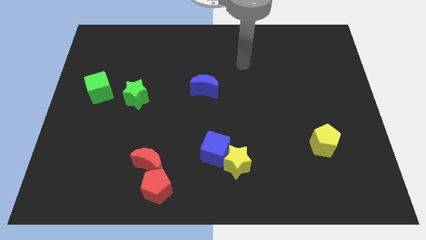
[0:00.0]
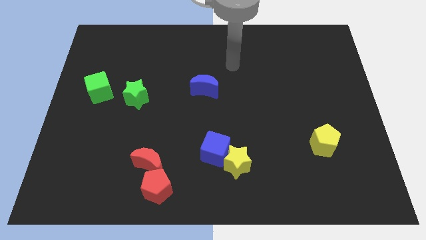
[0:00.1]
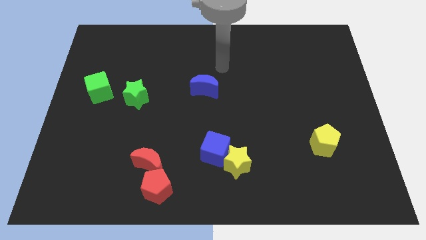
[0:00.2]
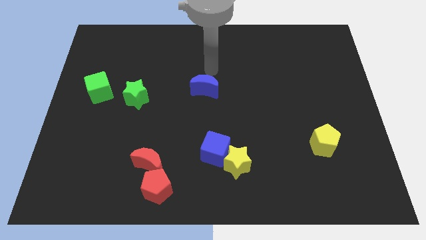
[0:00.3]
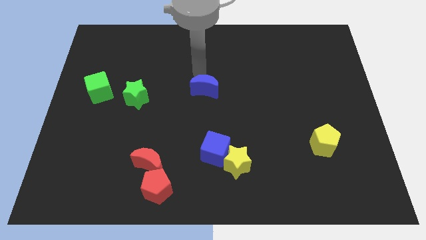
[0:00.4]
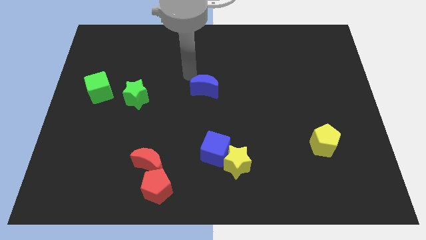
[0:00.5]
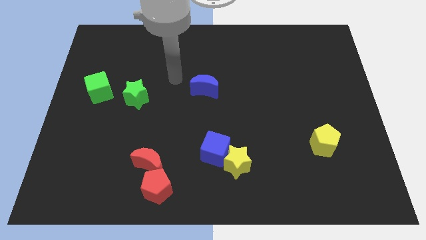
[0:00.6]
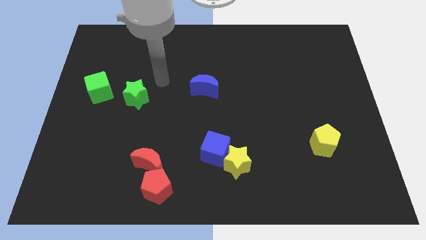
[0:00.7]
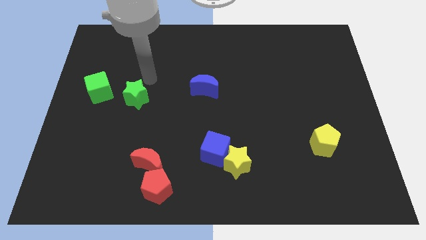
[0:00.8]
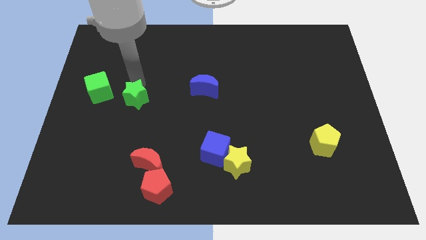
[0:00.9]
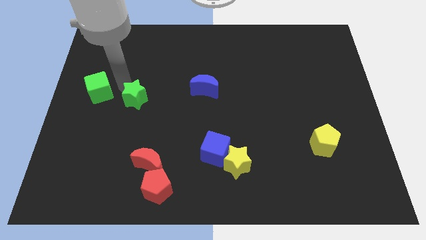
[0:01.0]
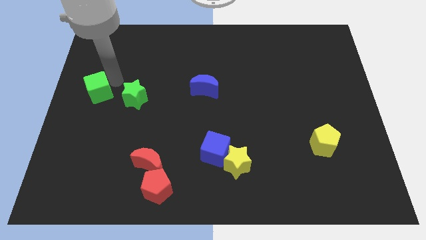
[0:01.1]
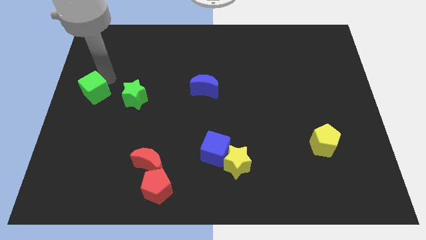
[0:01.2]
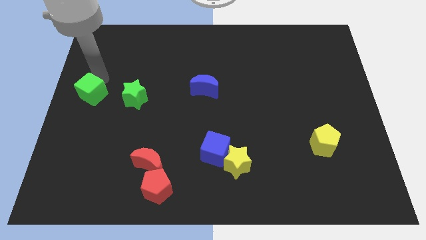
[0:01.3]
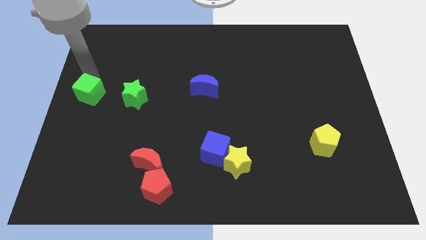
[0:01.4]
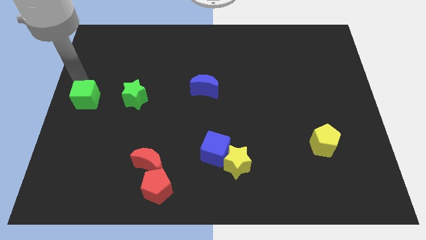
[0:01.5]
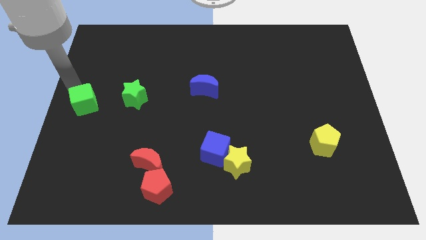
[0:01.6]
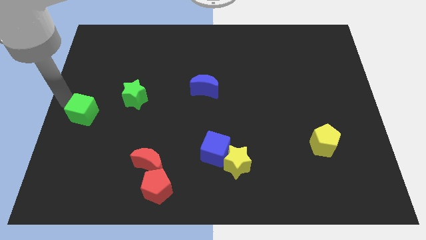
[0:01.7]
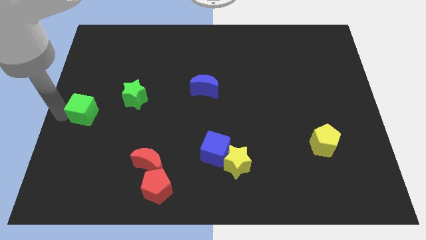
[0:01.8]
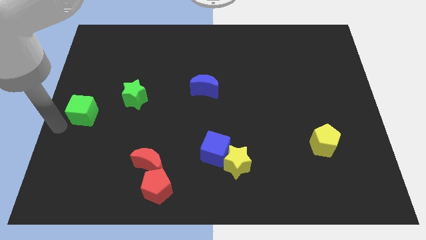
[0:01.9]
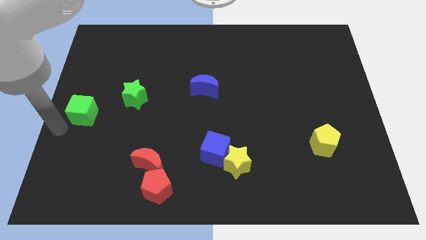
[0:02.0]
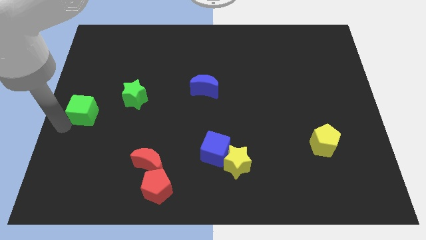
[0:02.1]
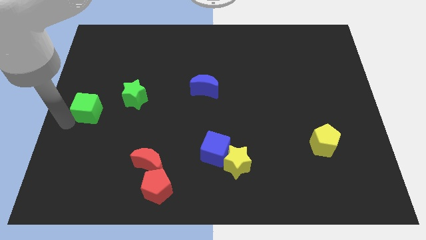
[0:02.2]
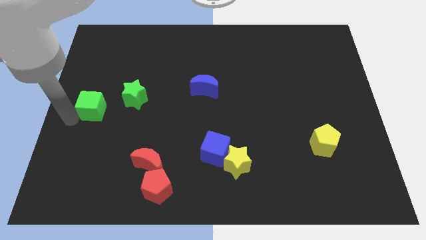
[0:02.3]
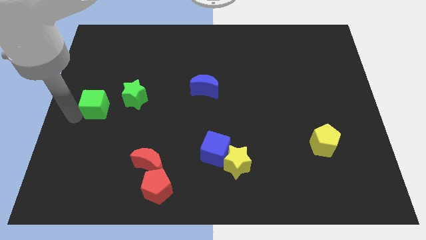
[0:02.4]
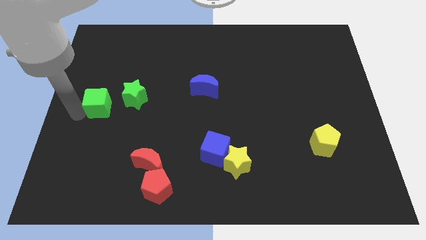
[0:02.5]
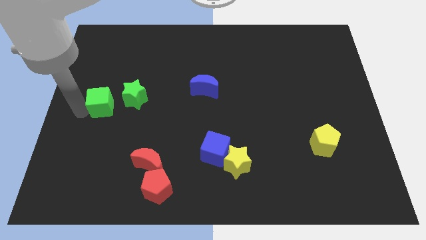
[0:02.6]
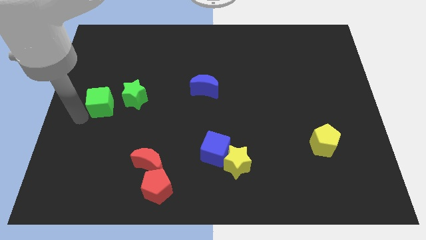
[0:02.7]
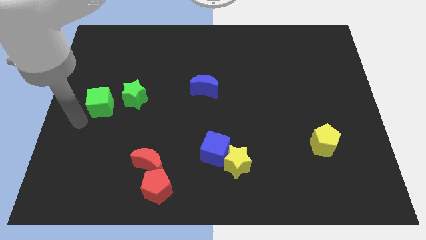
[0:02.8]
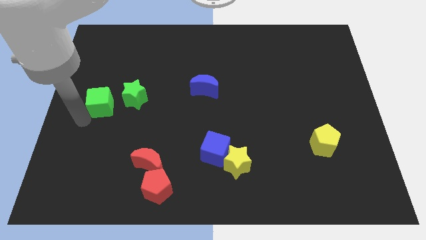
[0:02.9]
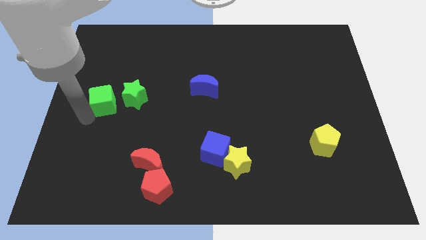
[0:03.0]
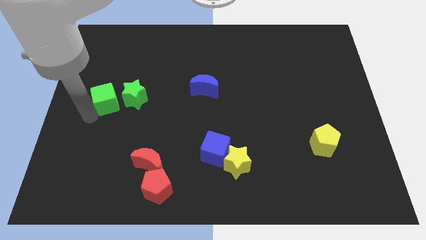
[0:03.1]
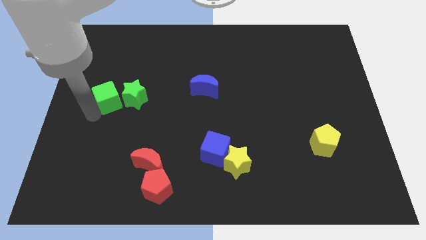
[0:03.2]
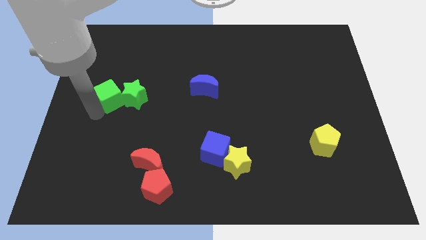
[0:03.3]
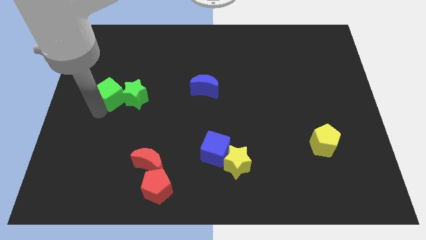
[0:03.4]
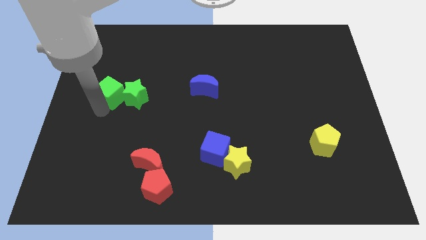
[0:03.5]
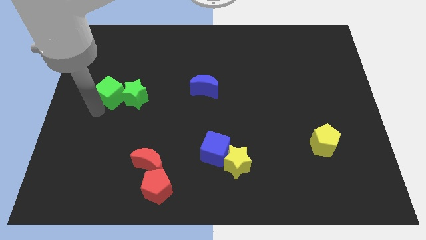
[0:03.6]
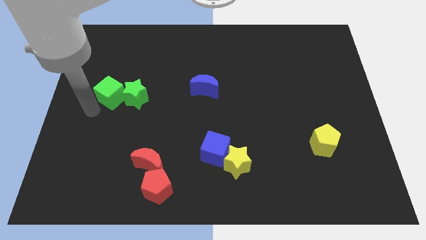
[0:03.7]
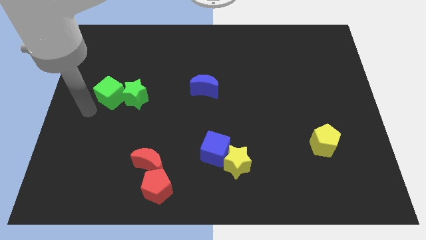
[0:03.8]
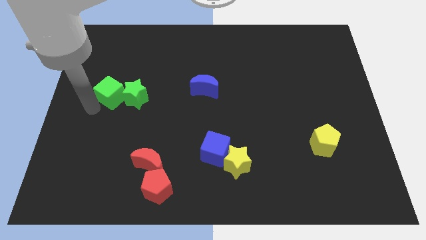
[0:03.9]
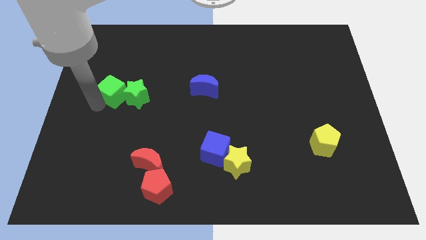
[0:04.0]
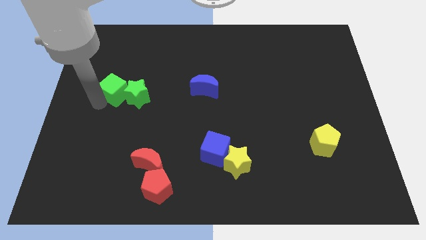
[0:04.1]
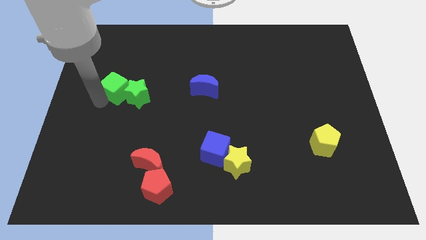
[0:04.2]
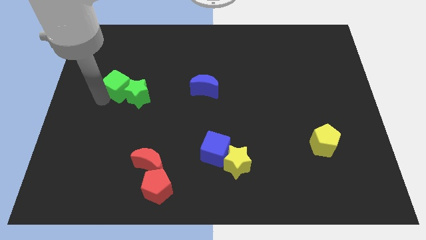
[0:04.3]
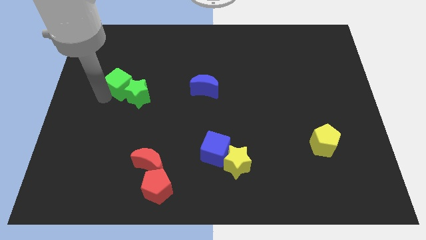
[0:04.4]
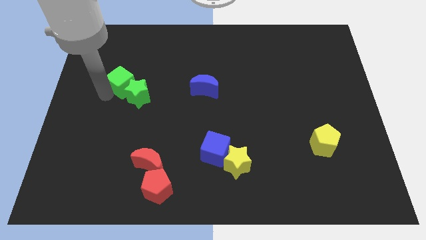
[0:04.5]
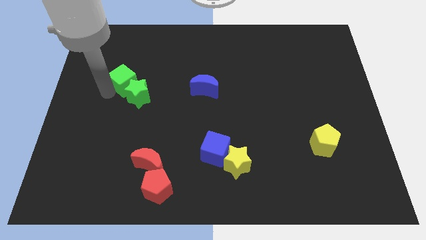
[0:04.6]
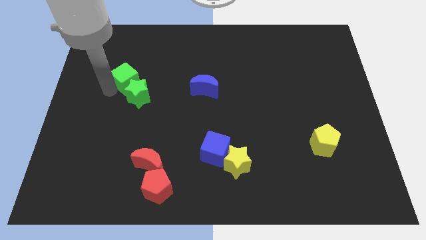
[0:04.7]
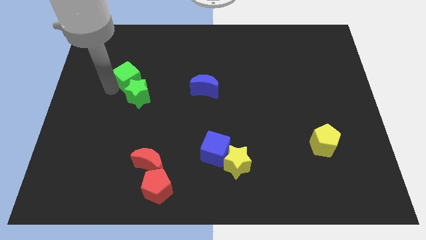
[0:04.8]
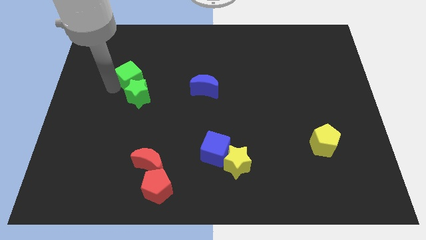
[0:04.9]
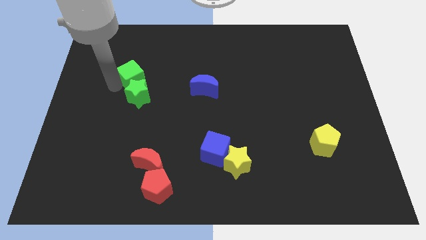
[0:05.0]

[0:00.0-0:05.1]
move the green cube somewhat to the right

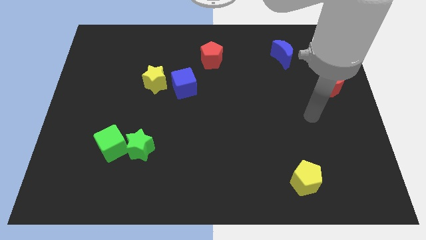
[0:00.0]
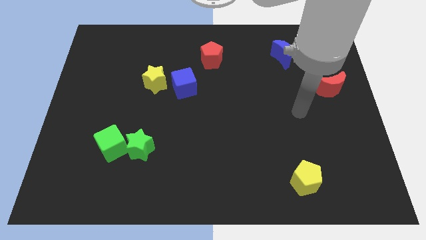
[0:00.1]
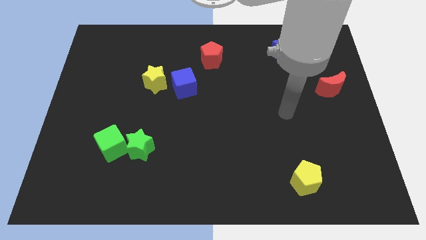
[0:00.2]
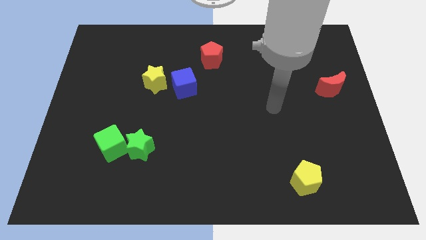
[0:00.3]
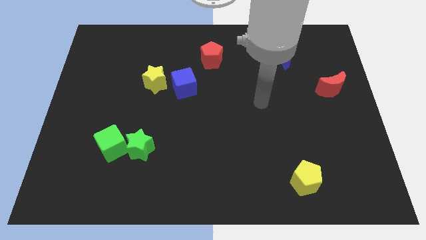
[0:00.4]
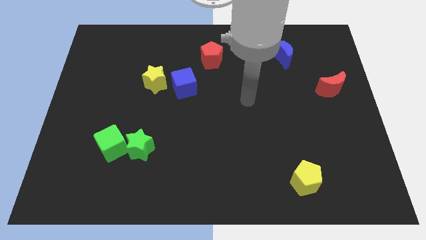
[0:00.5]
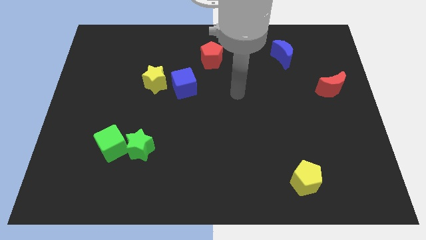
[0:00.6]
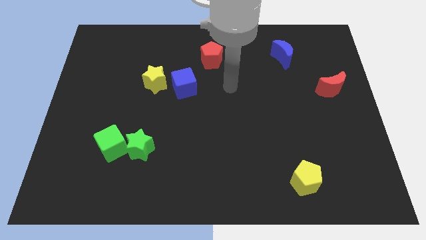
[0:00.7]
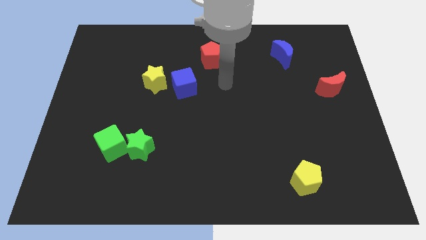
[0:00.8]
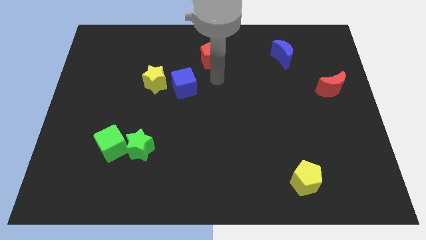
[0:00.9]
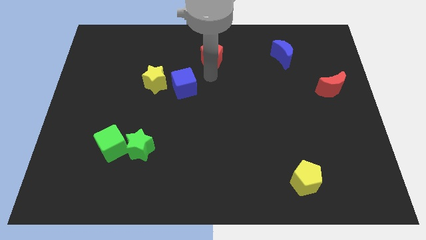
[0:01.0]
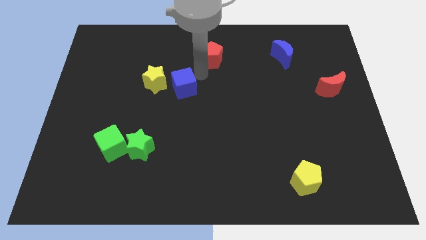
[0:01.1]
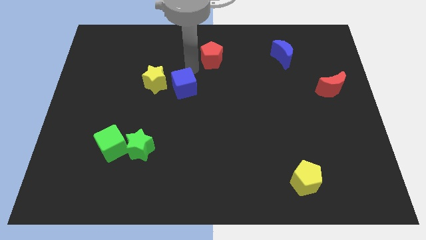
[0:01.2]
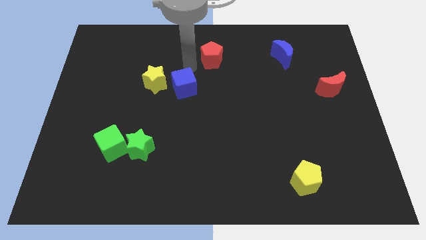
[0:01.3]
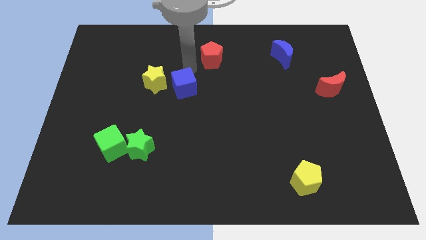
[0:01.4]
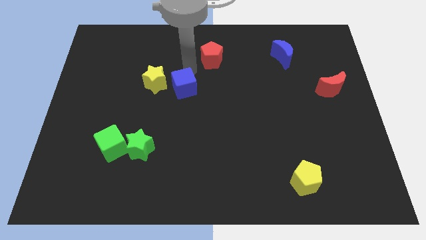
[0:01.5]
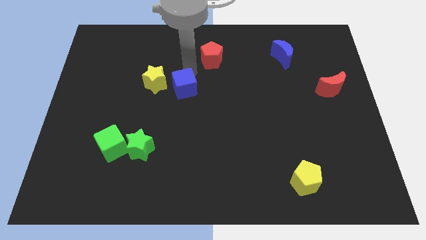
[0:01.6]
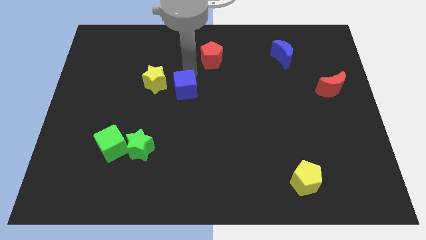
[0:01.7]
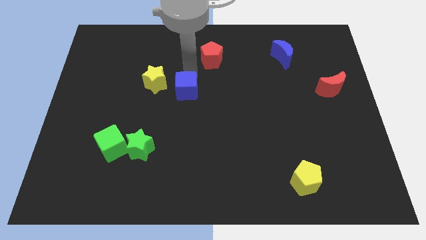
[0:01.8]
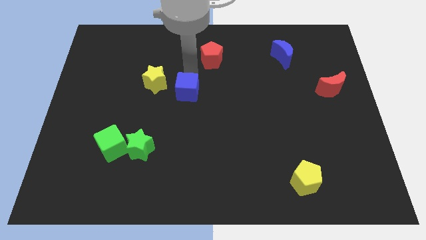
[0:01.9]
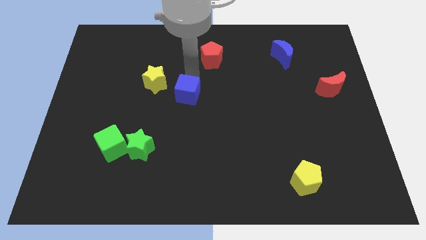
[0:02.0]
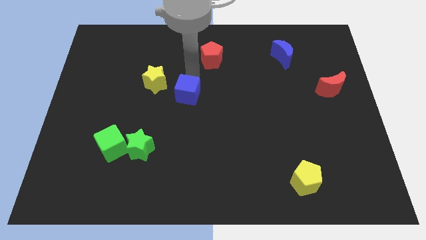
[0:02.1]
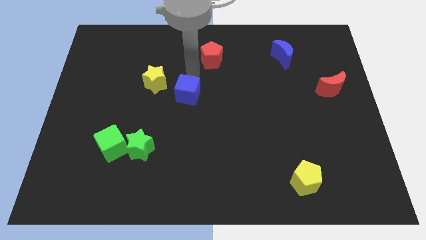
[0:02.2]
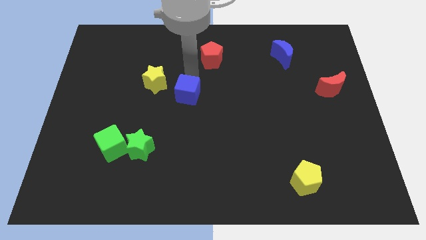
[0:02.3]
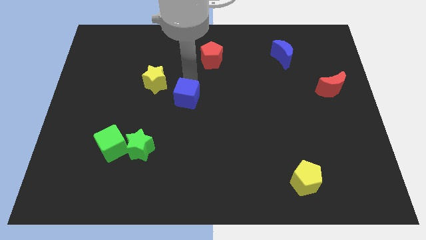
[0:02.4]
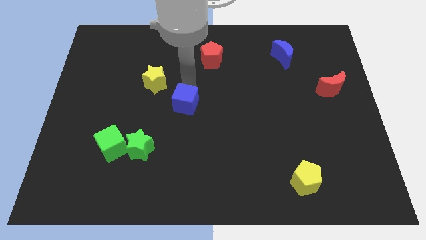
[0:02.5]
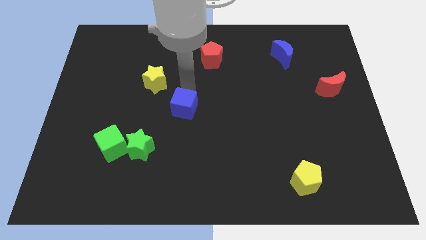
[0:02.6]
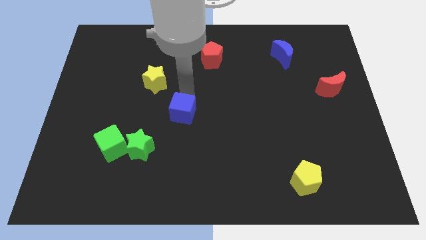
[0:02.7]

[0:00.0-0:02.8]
push the blue cube down slightly

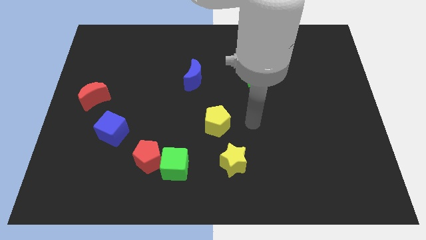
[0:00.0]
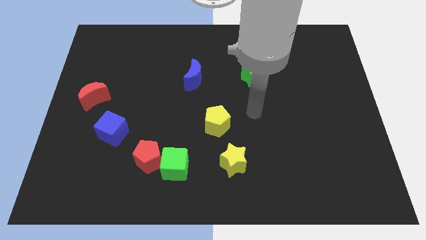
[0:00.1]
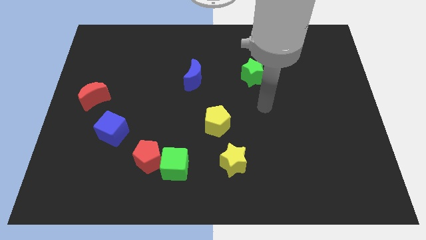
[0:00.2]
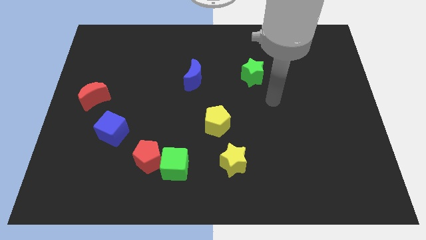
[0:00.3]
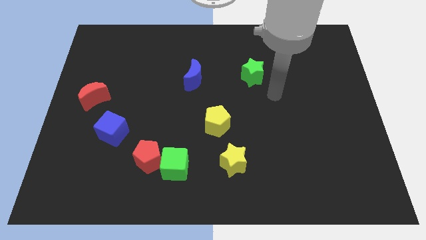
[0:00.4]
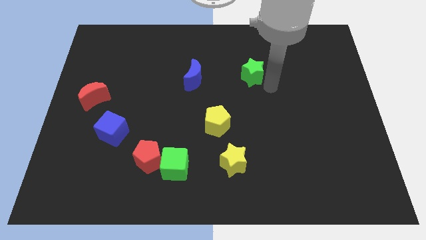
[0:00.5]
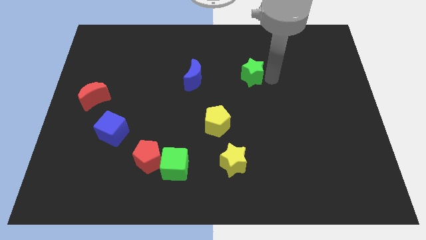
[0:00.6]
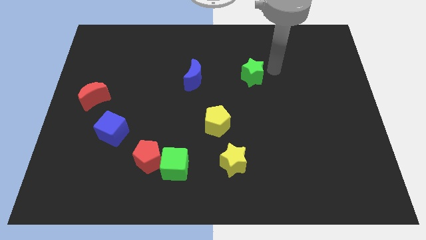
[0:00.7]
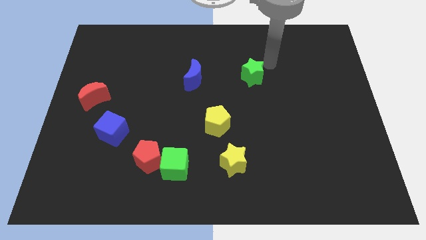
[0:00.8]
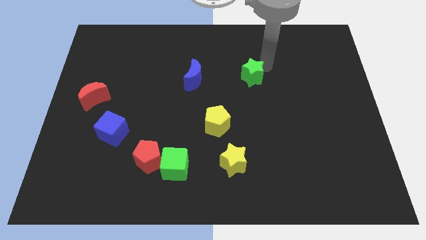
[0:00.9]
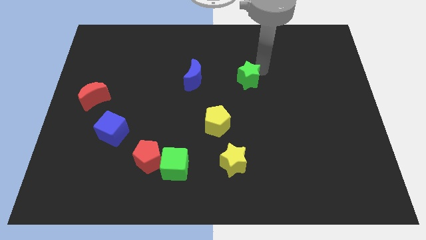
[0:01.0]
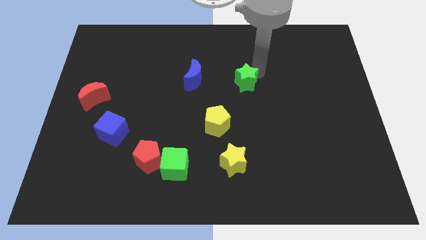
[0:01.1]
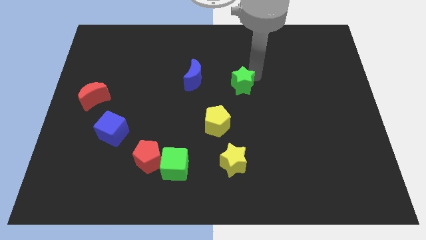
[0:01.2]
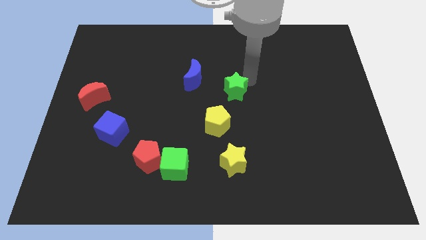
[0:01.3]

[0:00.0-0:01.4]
move the green star a bit downwards and to the left diagonally
